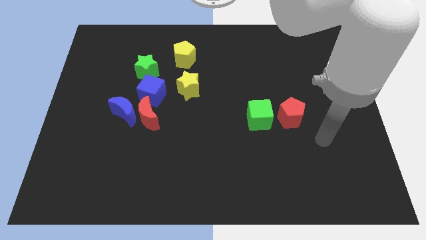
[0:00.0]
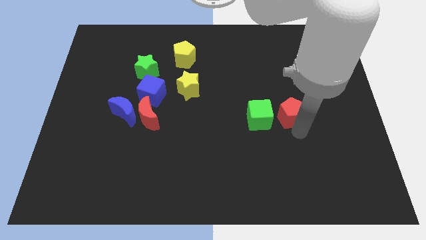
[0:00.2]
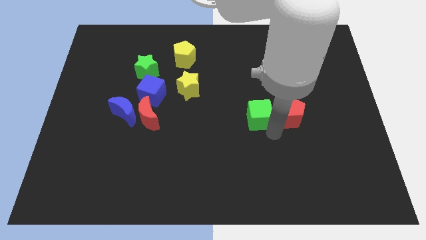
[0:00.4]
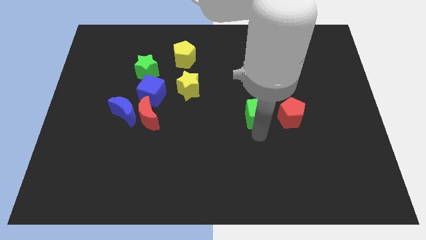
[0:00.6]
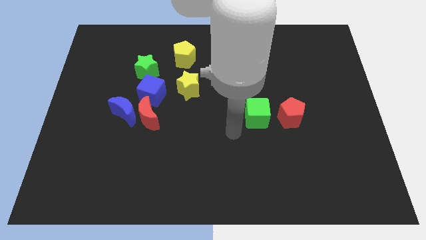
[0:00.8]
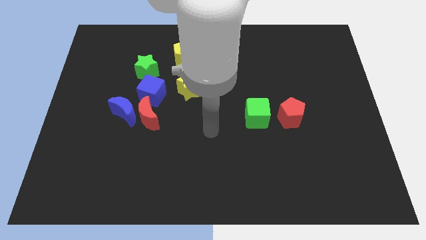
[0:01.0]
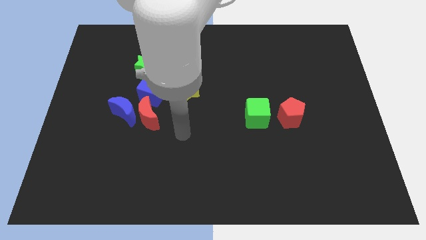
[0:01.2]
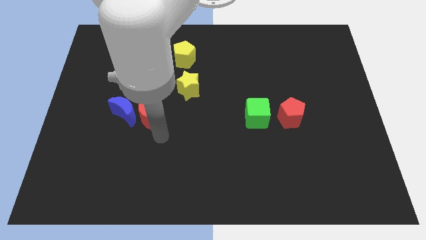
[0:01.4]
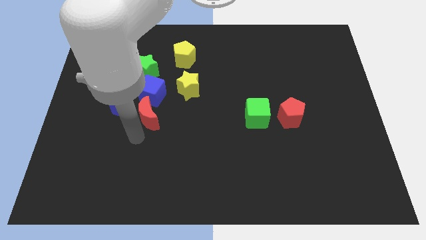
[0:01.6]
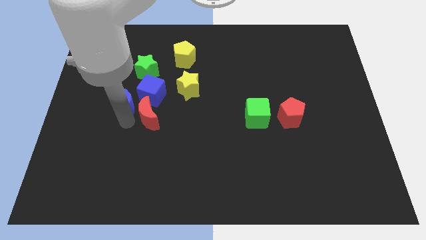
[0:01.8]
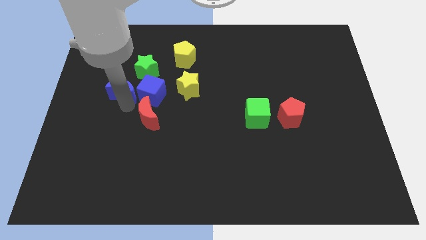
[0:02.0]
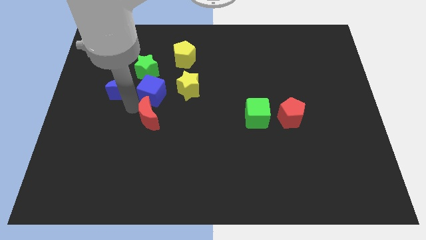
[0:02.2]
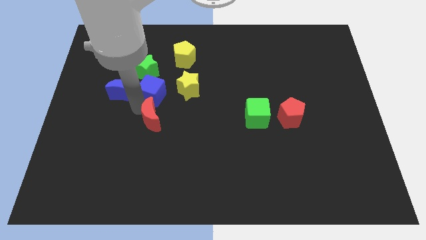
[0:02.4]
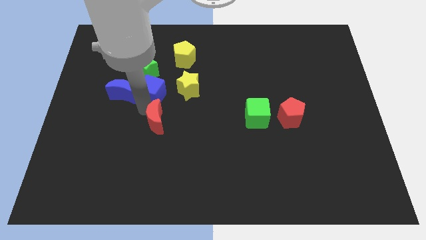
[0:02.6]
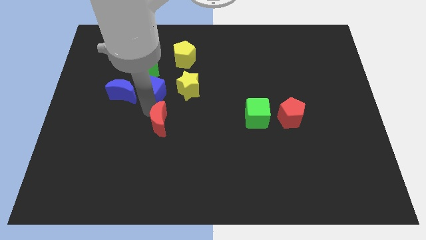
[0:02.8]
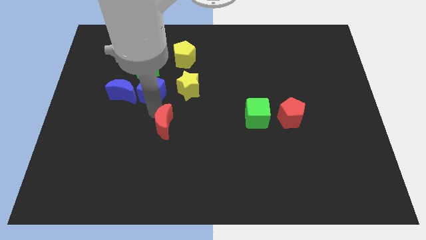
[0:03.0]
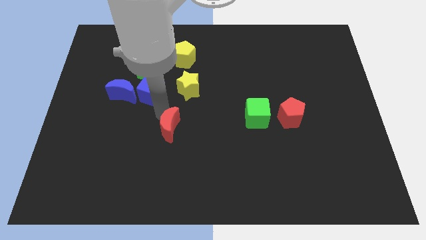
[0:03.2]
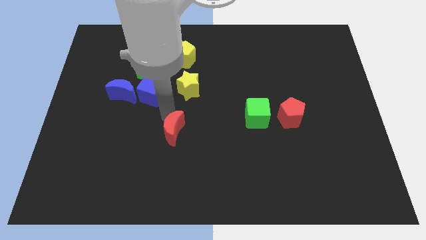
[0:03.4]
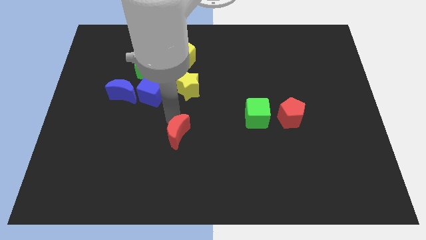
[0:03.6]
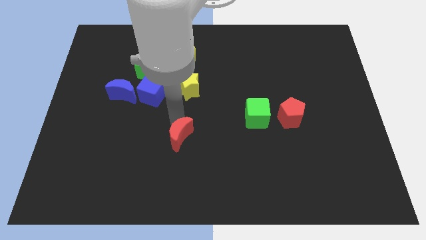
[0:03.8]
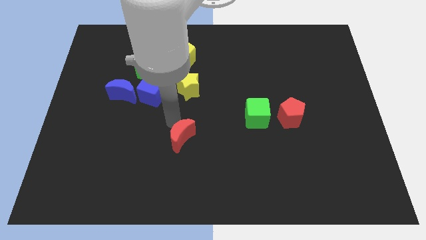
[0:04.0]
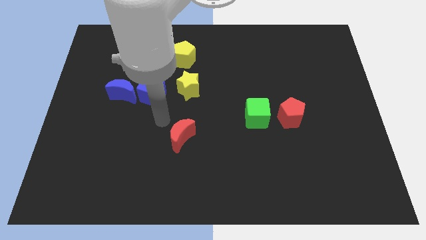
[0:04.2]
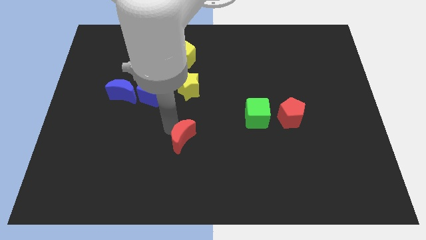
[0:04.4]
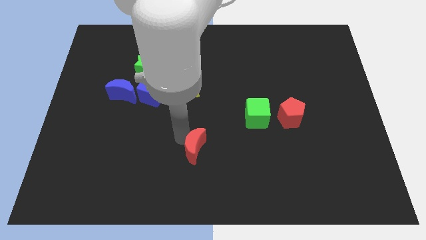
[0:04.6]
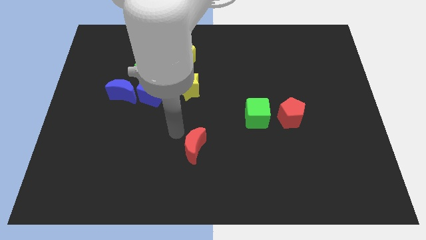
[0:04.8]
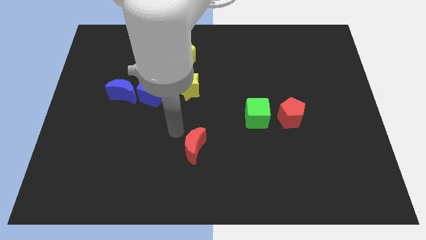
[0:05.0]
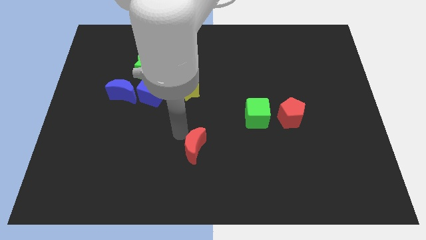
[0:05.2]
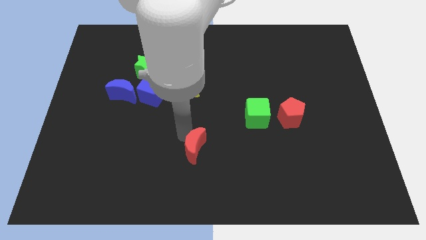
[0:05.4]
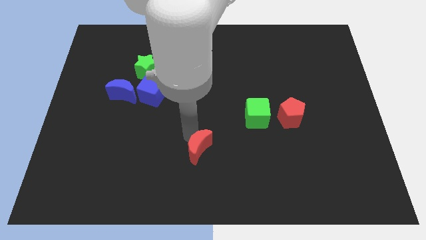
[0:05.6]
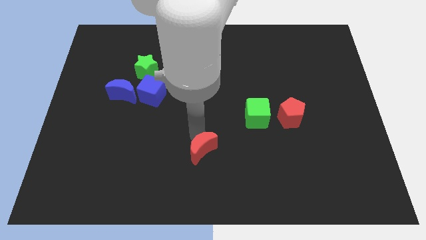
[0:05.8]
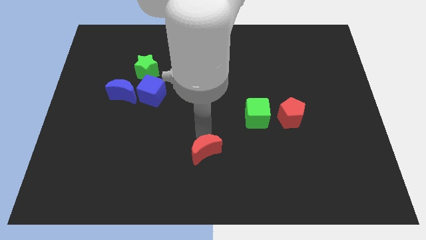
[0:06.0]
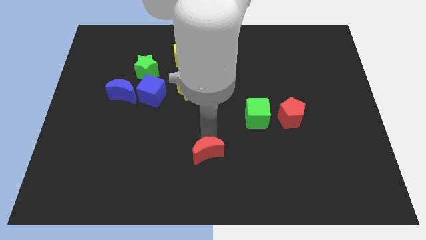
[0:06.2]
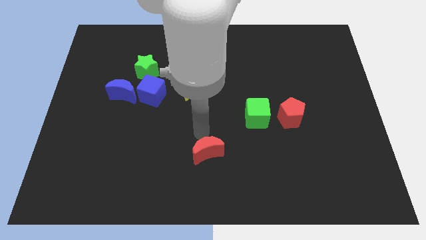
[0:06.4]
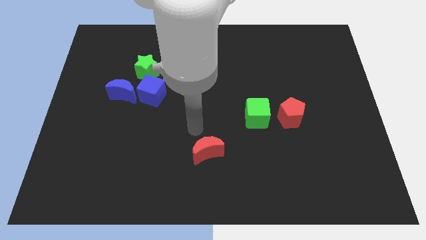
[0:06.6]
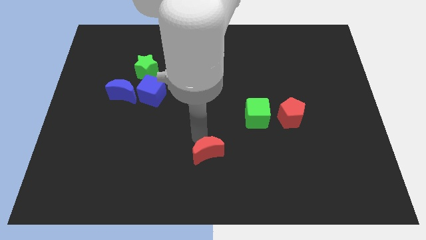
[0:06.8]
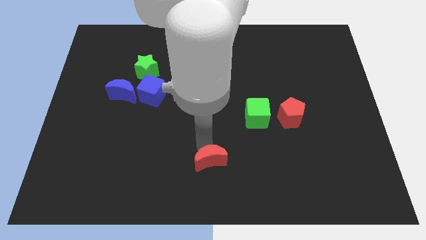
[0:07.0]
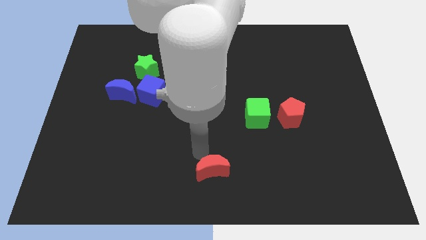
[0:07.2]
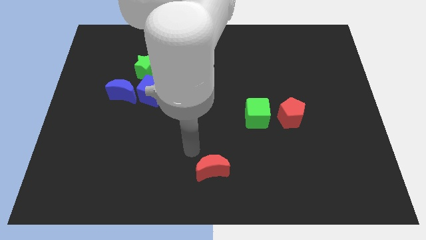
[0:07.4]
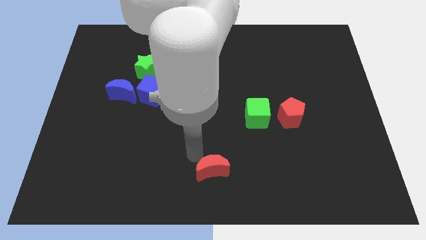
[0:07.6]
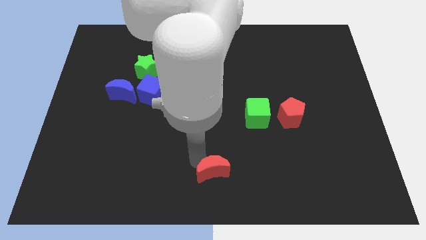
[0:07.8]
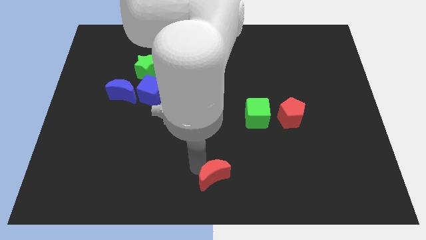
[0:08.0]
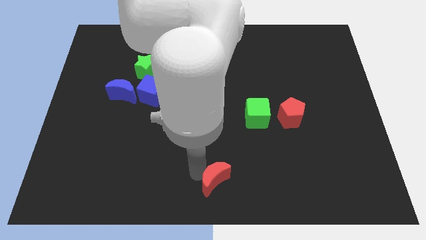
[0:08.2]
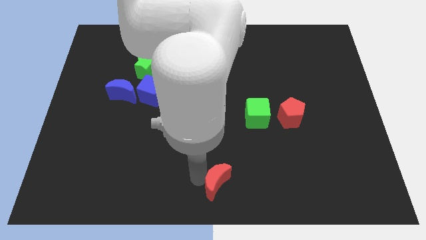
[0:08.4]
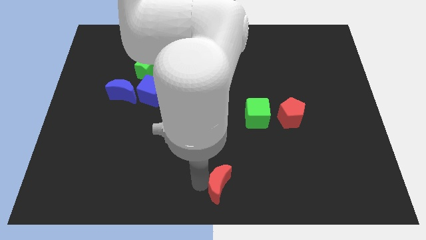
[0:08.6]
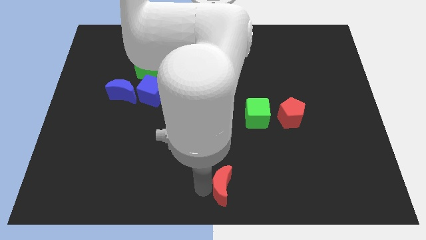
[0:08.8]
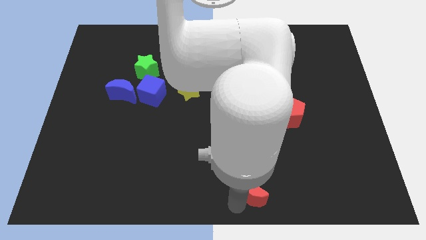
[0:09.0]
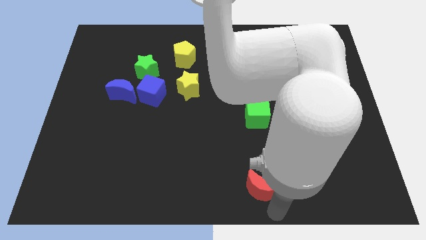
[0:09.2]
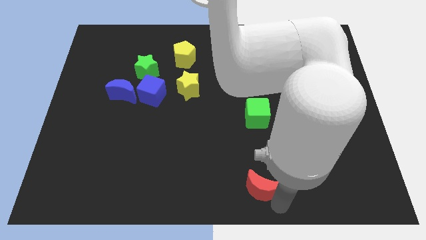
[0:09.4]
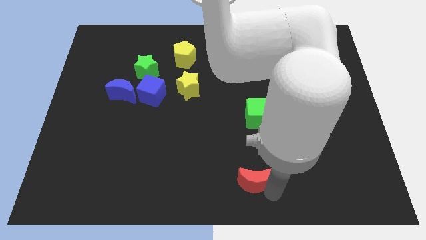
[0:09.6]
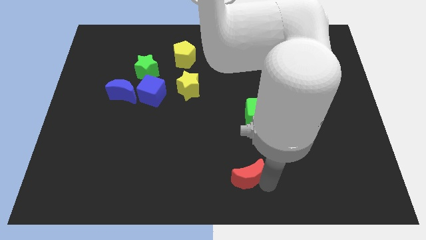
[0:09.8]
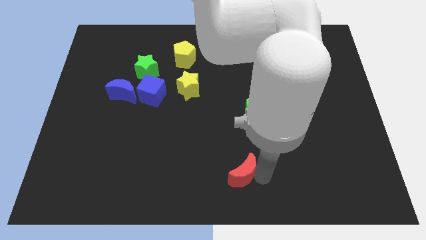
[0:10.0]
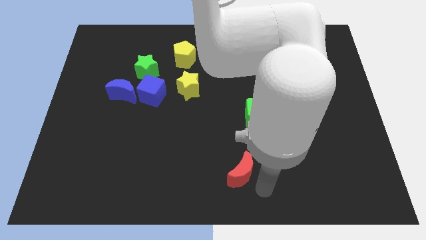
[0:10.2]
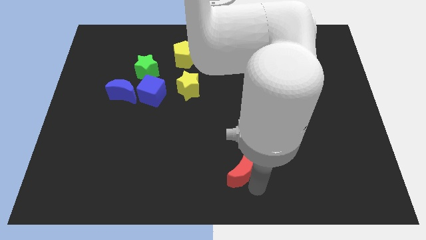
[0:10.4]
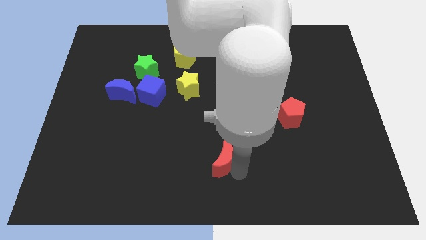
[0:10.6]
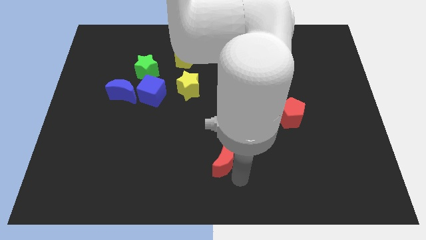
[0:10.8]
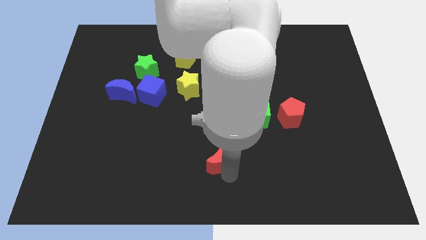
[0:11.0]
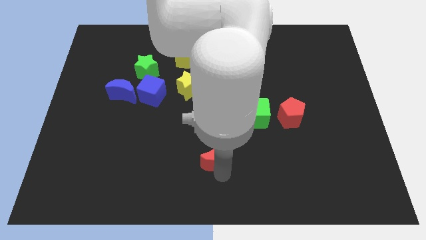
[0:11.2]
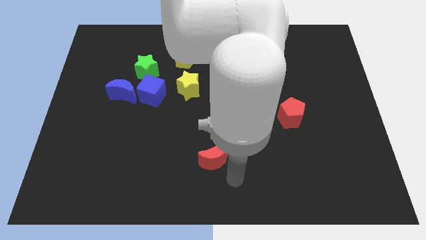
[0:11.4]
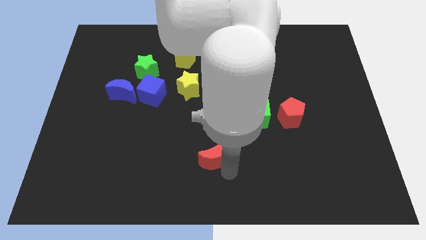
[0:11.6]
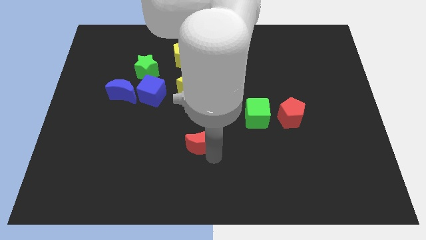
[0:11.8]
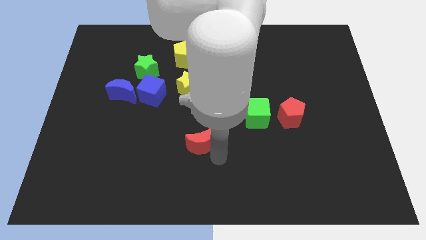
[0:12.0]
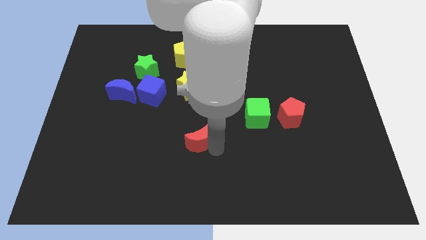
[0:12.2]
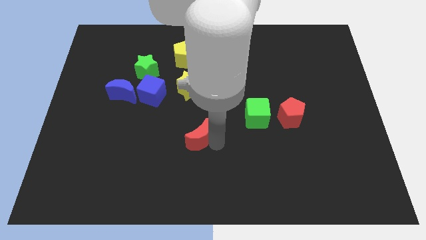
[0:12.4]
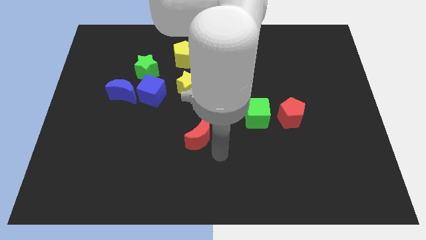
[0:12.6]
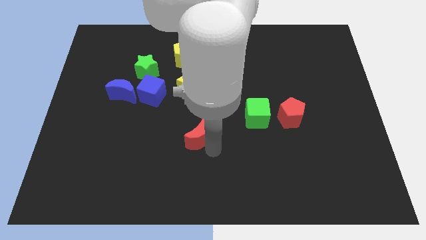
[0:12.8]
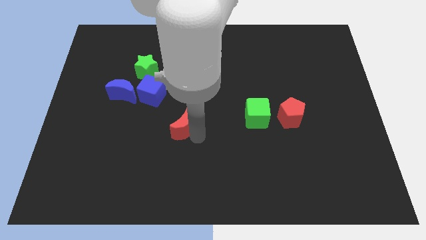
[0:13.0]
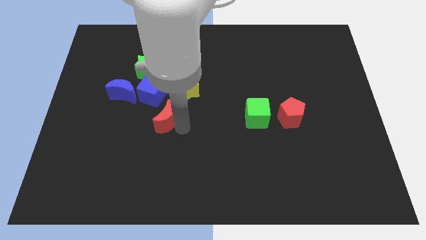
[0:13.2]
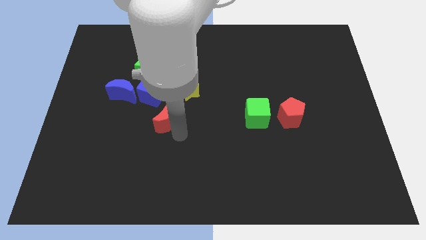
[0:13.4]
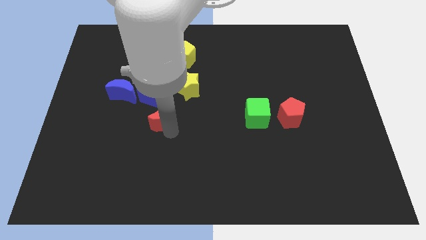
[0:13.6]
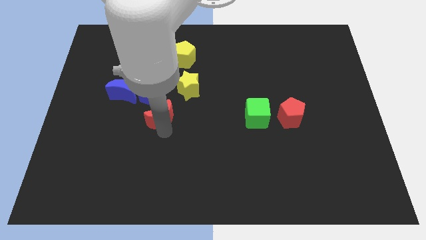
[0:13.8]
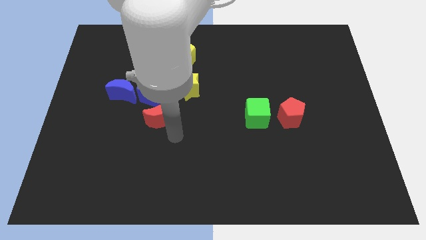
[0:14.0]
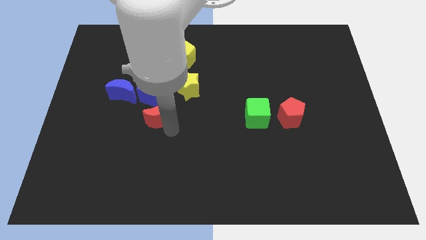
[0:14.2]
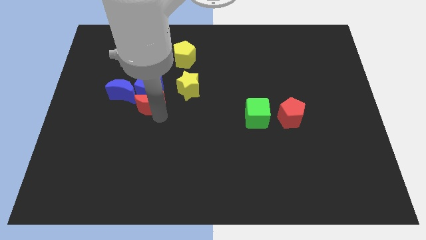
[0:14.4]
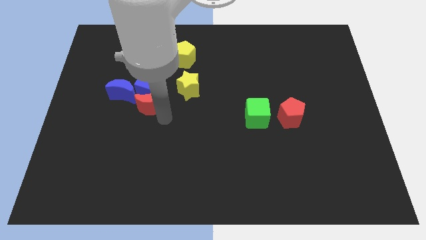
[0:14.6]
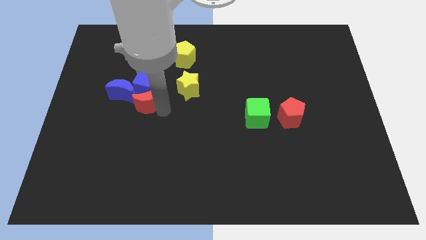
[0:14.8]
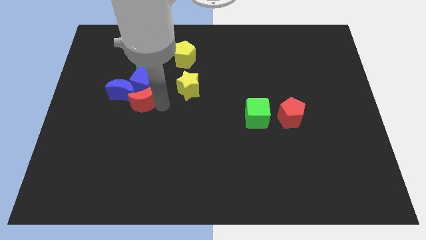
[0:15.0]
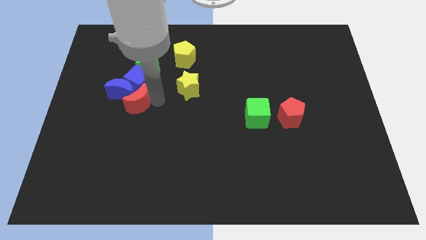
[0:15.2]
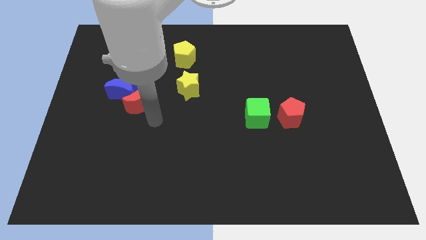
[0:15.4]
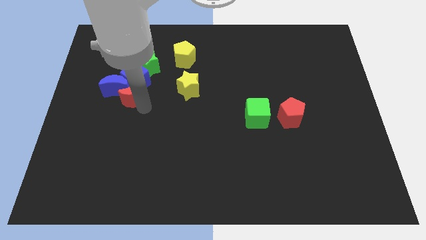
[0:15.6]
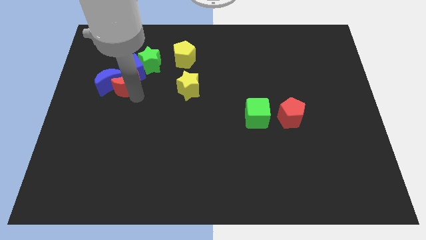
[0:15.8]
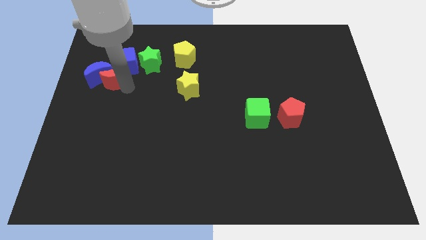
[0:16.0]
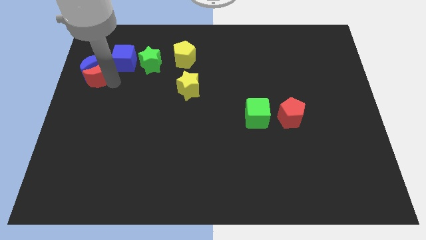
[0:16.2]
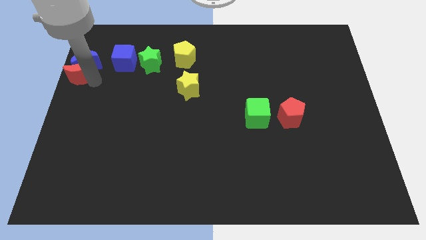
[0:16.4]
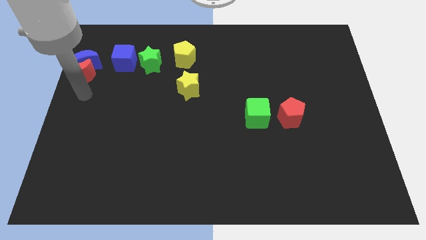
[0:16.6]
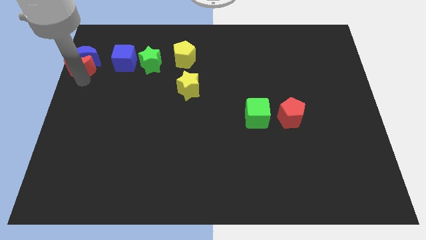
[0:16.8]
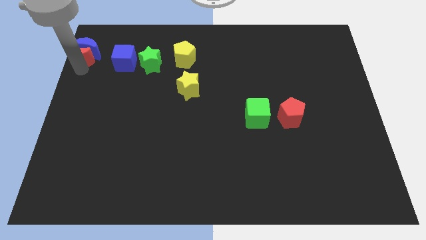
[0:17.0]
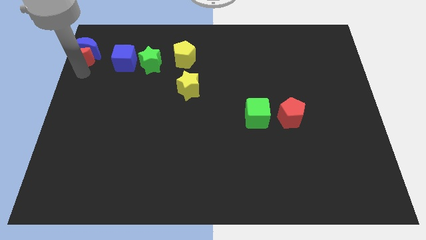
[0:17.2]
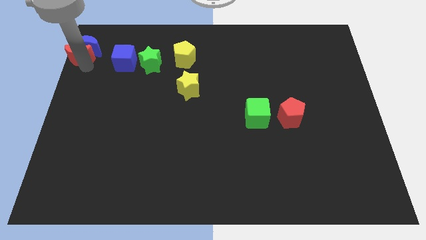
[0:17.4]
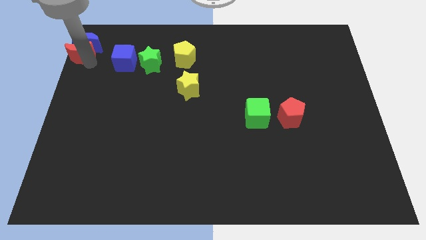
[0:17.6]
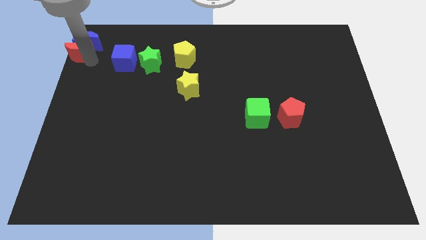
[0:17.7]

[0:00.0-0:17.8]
push the red moon to the top left corner
